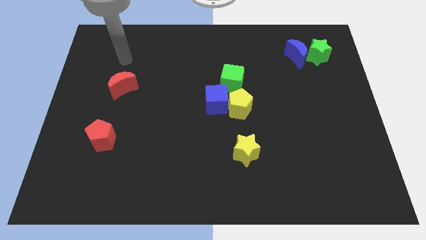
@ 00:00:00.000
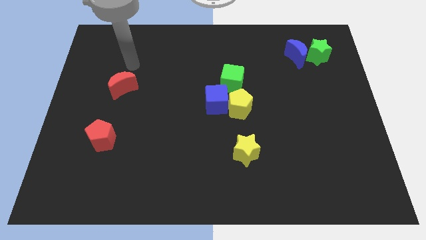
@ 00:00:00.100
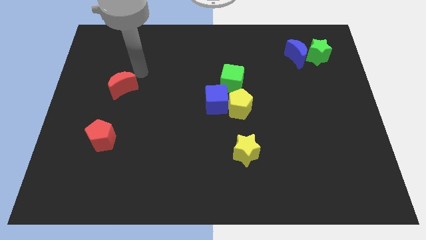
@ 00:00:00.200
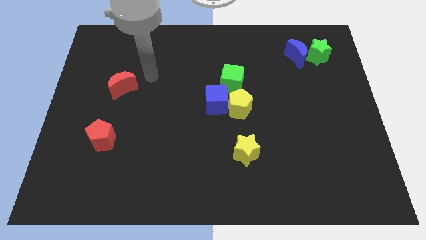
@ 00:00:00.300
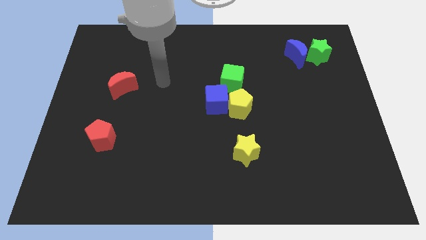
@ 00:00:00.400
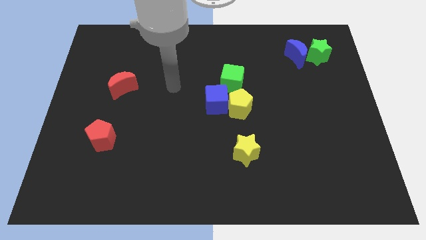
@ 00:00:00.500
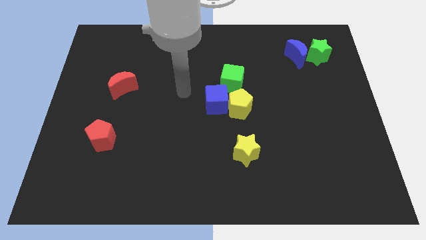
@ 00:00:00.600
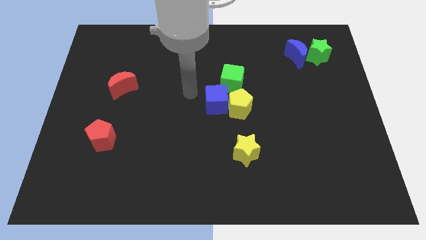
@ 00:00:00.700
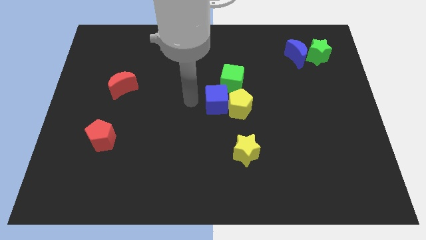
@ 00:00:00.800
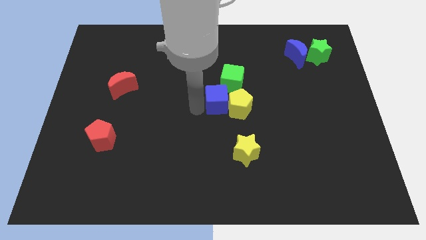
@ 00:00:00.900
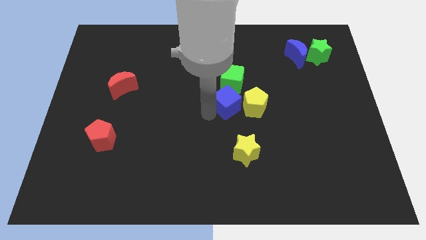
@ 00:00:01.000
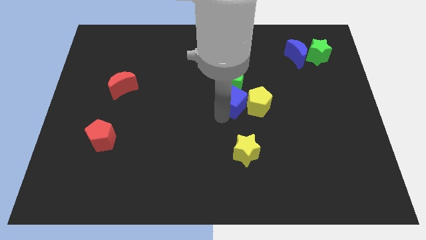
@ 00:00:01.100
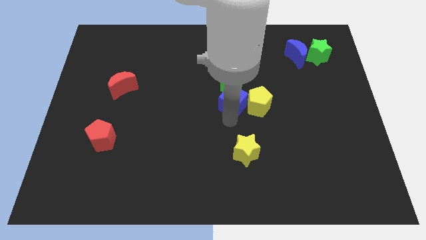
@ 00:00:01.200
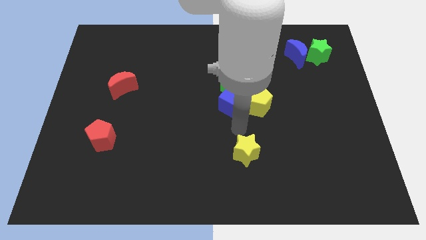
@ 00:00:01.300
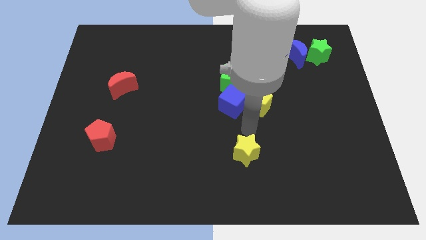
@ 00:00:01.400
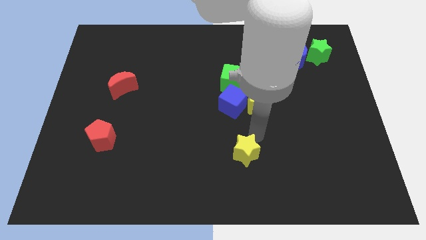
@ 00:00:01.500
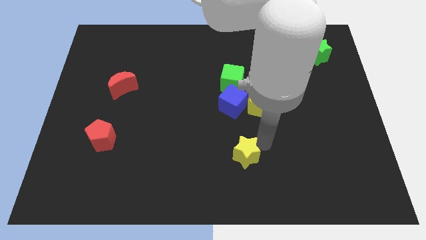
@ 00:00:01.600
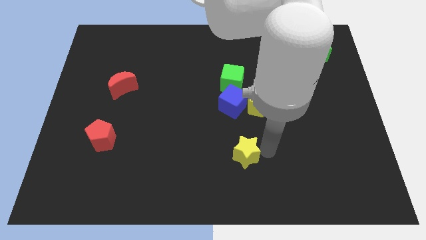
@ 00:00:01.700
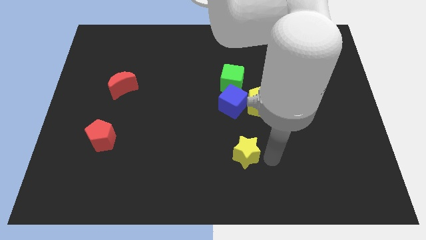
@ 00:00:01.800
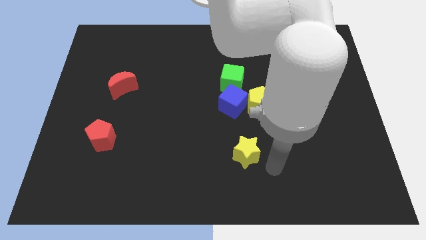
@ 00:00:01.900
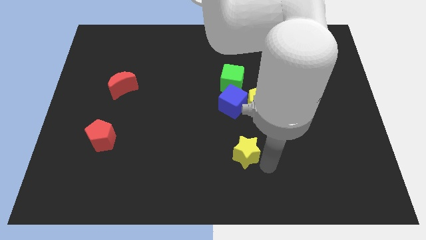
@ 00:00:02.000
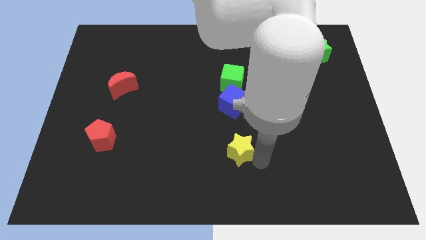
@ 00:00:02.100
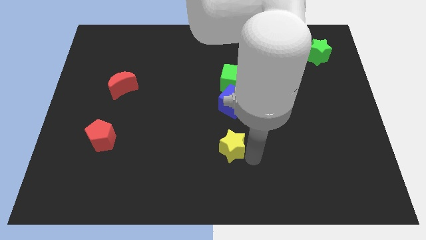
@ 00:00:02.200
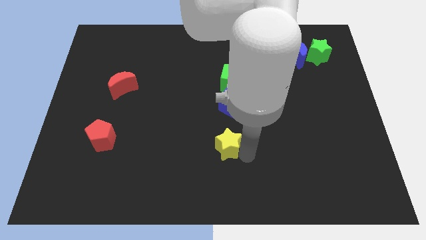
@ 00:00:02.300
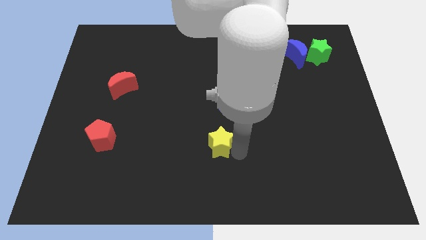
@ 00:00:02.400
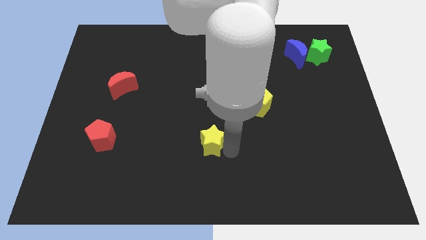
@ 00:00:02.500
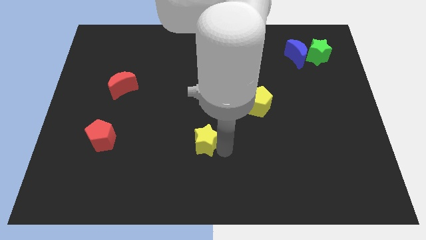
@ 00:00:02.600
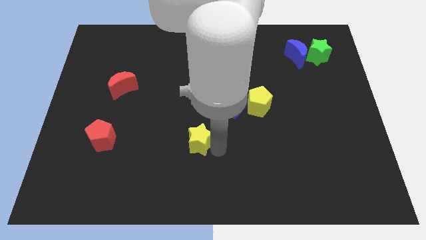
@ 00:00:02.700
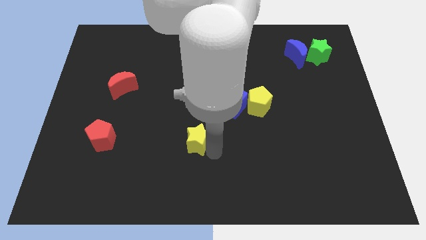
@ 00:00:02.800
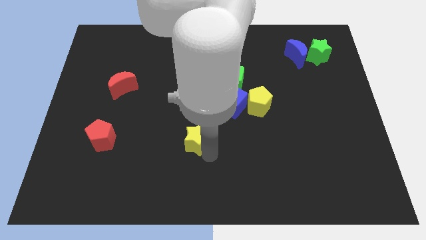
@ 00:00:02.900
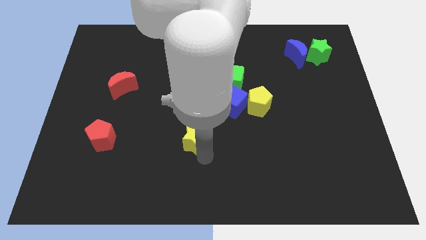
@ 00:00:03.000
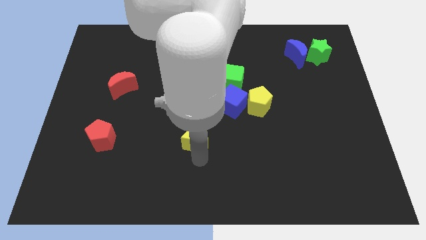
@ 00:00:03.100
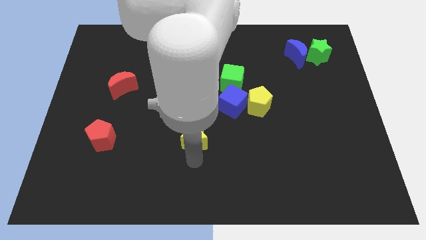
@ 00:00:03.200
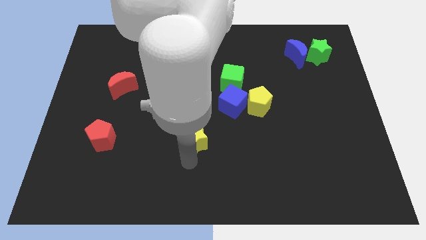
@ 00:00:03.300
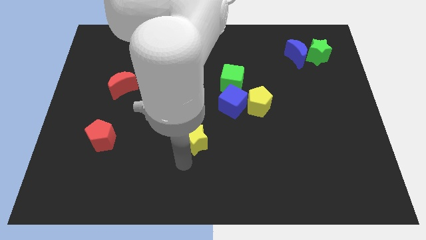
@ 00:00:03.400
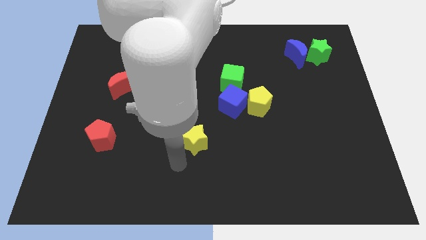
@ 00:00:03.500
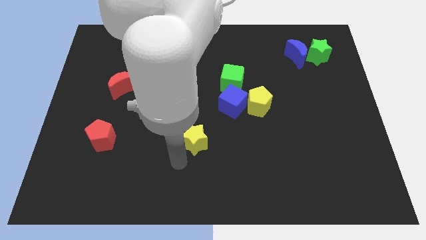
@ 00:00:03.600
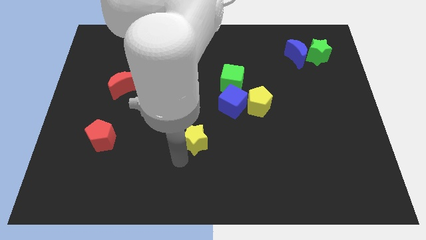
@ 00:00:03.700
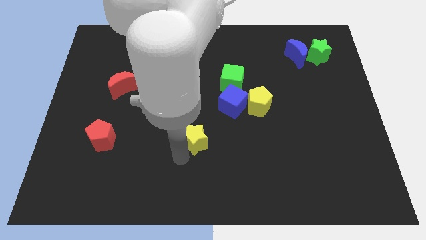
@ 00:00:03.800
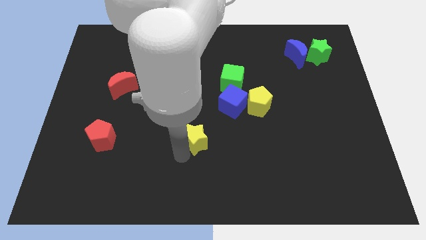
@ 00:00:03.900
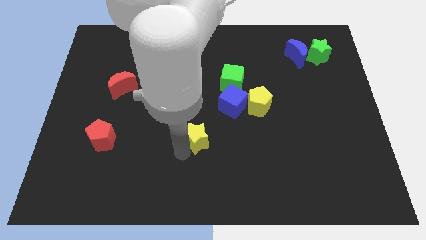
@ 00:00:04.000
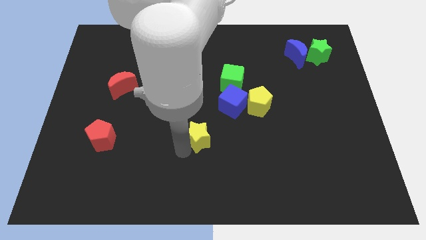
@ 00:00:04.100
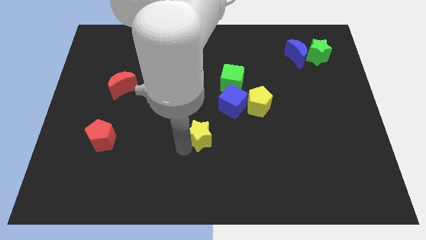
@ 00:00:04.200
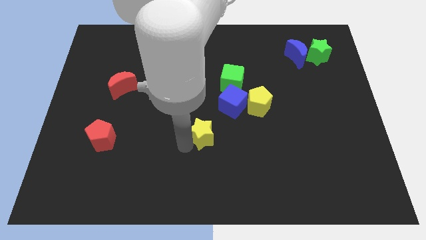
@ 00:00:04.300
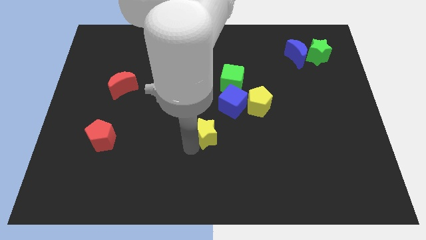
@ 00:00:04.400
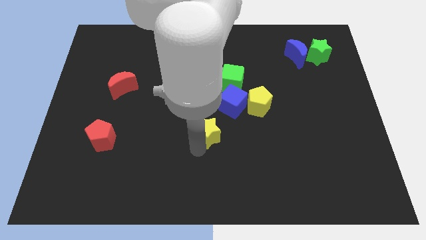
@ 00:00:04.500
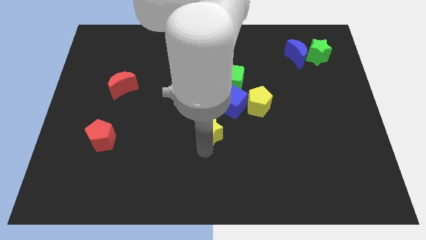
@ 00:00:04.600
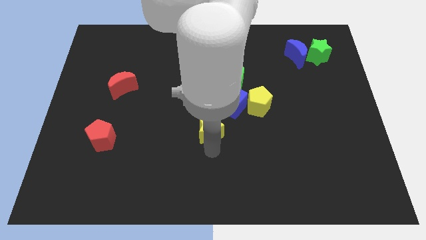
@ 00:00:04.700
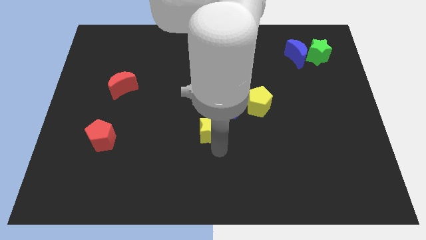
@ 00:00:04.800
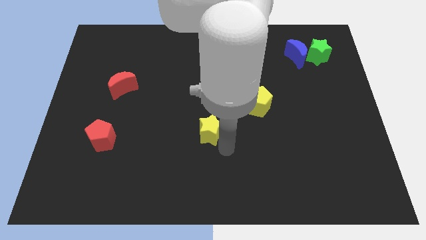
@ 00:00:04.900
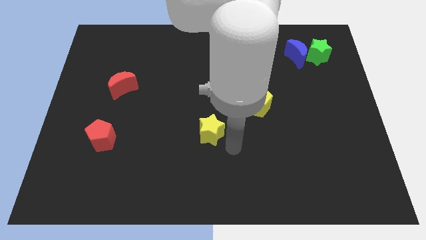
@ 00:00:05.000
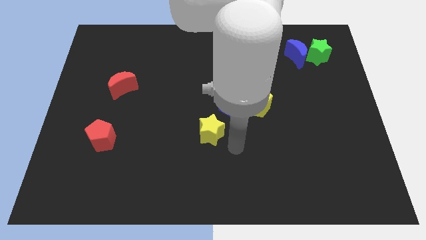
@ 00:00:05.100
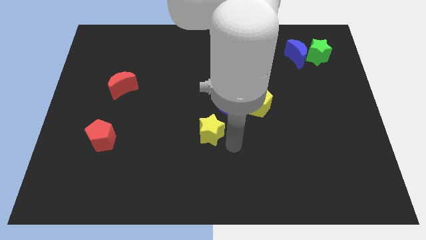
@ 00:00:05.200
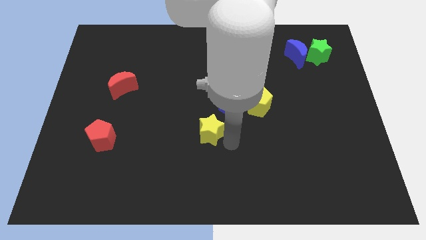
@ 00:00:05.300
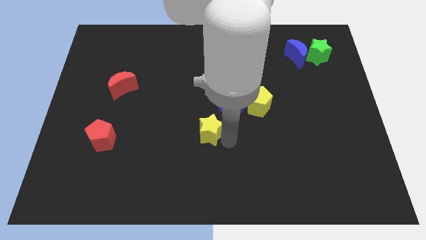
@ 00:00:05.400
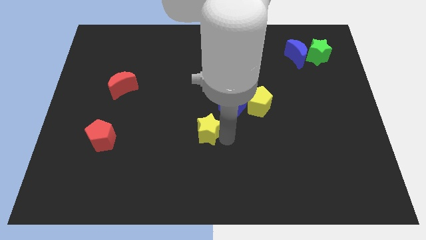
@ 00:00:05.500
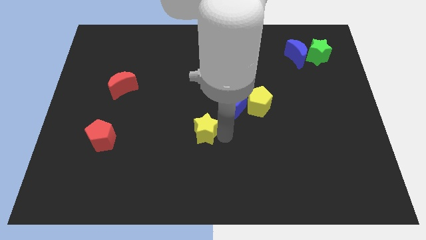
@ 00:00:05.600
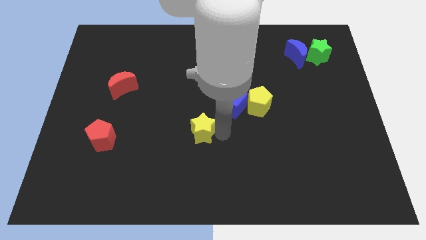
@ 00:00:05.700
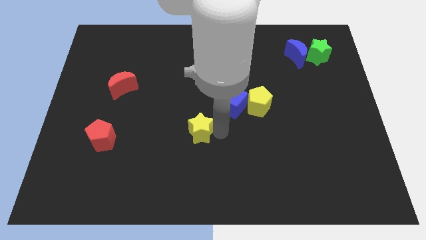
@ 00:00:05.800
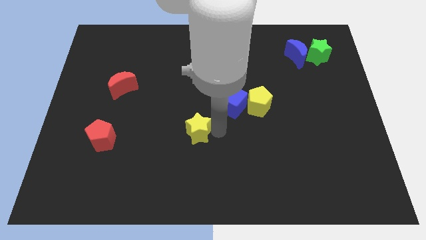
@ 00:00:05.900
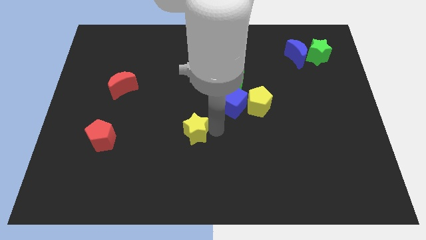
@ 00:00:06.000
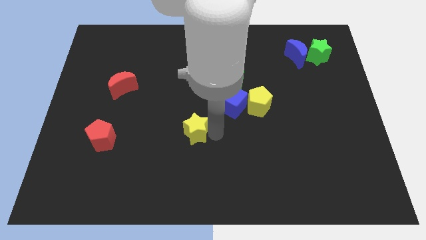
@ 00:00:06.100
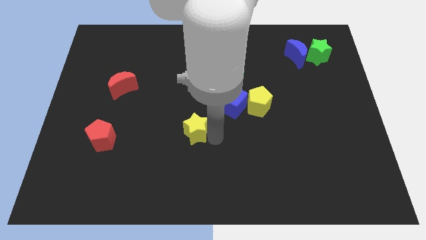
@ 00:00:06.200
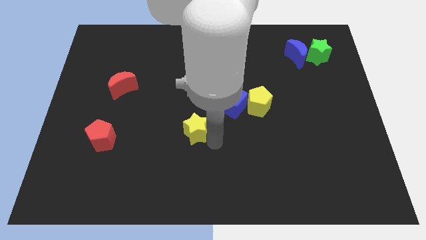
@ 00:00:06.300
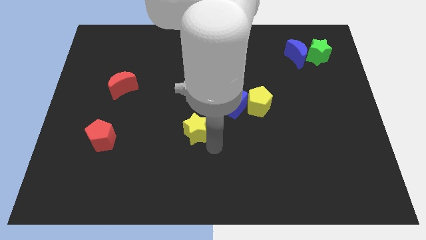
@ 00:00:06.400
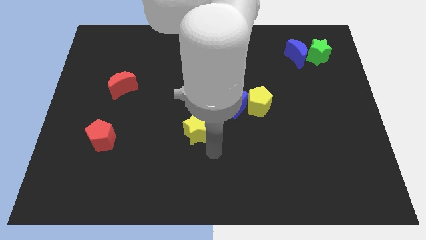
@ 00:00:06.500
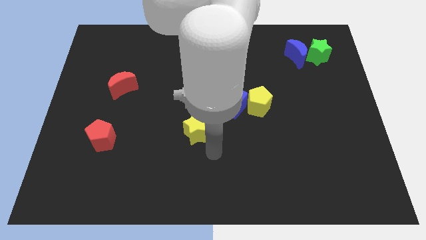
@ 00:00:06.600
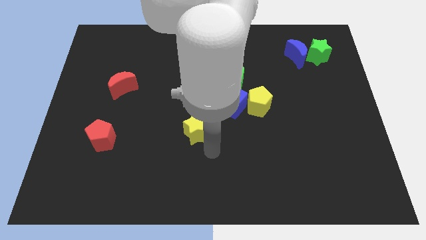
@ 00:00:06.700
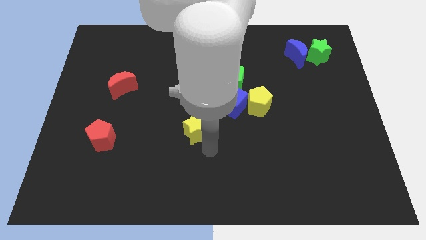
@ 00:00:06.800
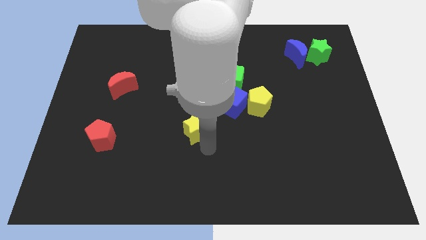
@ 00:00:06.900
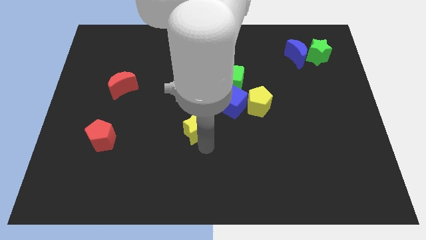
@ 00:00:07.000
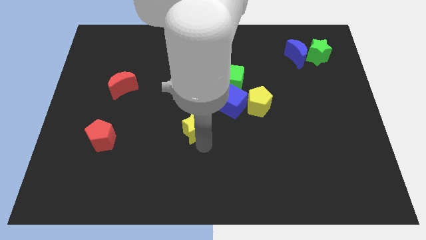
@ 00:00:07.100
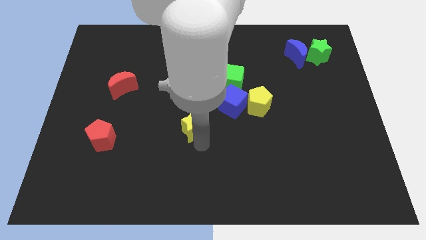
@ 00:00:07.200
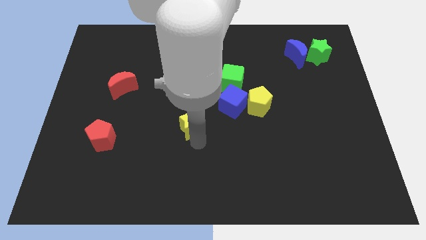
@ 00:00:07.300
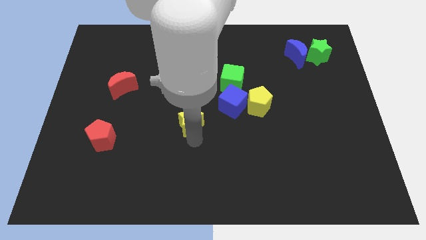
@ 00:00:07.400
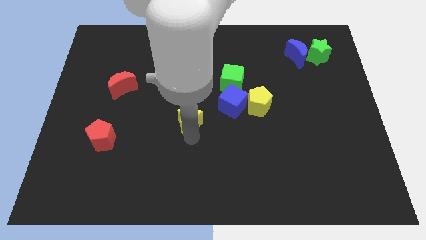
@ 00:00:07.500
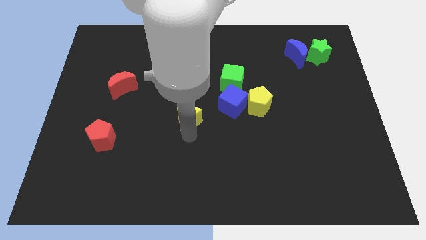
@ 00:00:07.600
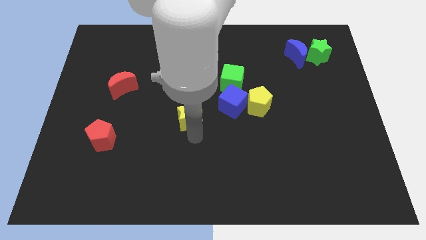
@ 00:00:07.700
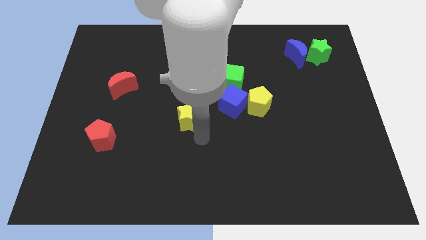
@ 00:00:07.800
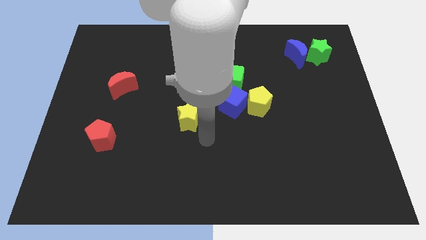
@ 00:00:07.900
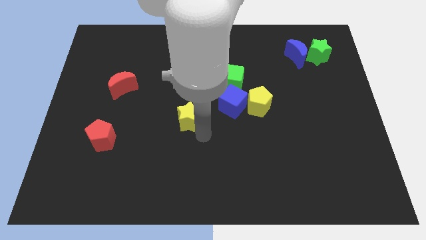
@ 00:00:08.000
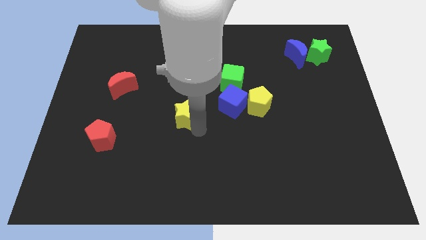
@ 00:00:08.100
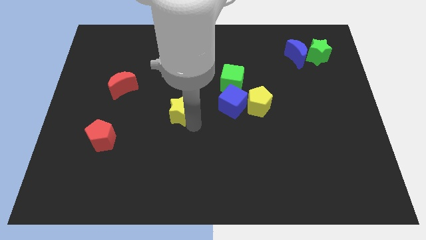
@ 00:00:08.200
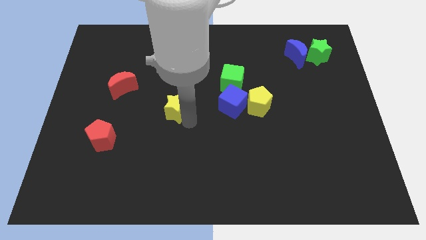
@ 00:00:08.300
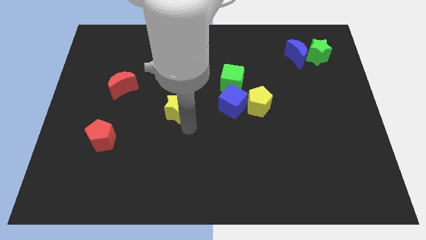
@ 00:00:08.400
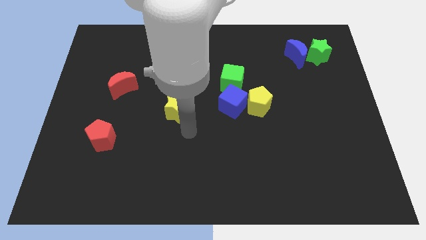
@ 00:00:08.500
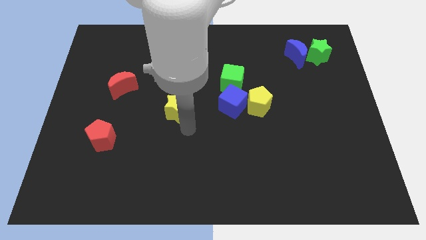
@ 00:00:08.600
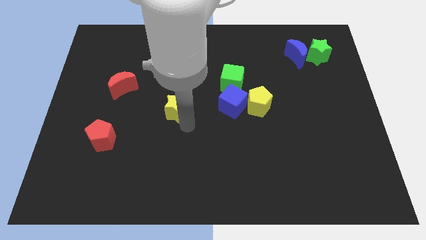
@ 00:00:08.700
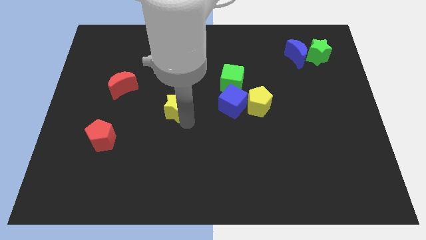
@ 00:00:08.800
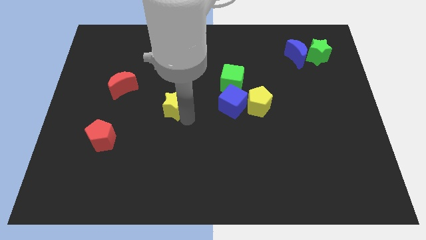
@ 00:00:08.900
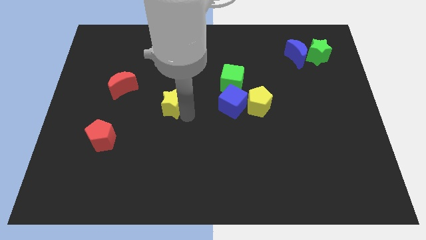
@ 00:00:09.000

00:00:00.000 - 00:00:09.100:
slide the yellow star diagonally up and left
